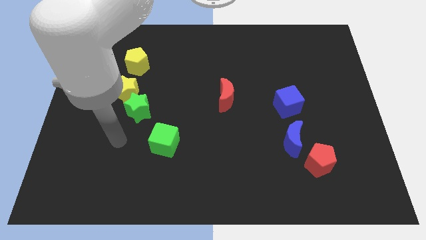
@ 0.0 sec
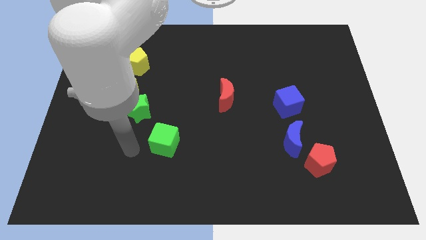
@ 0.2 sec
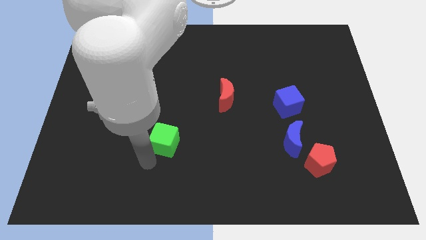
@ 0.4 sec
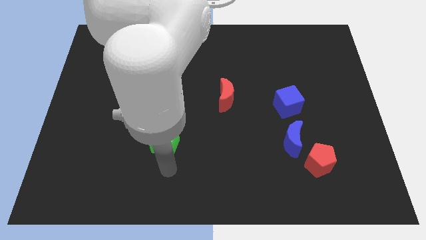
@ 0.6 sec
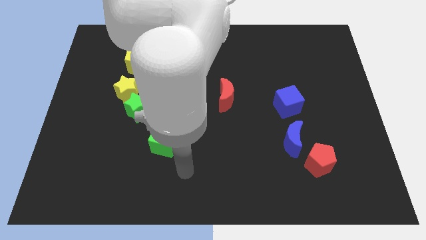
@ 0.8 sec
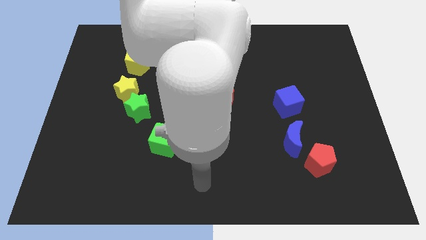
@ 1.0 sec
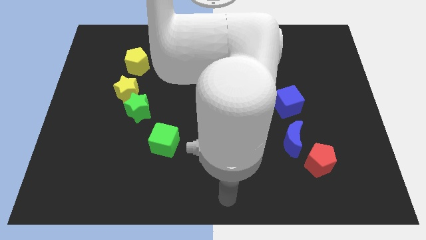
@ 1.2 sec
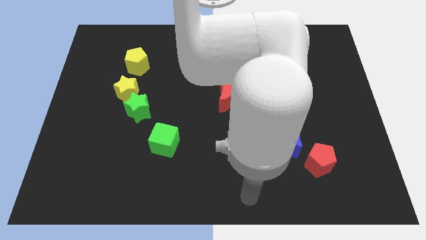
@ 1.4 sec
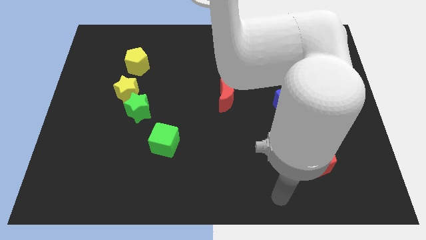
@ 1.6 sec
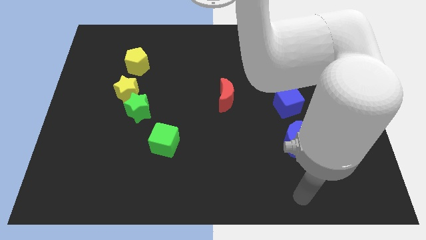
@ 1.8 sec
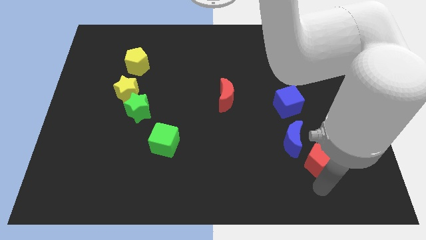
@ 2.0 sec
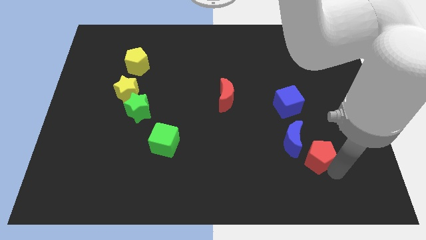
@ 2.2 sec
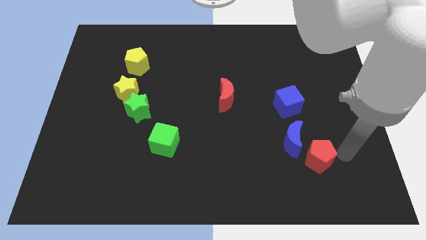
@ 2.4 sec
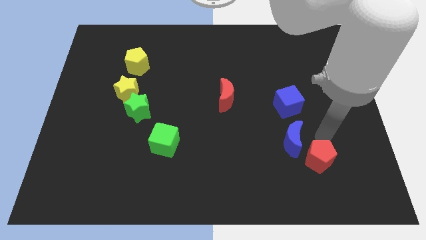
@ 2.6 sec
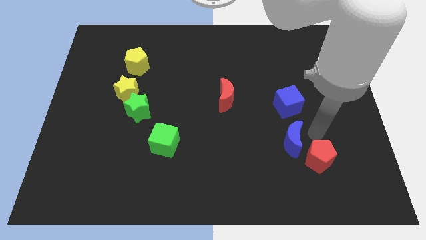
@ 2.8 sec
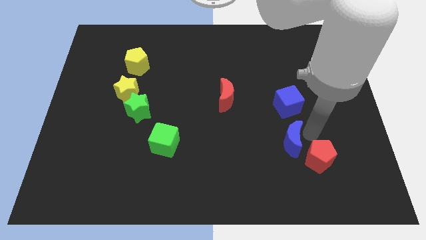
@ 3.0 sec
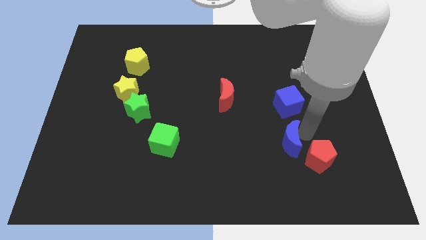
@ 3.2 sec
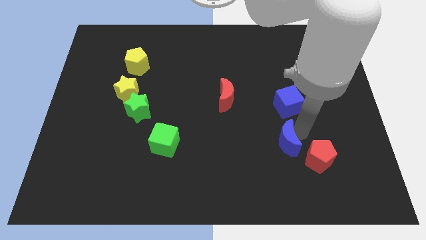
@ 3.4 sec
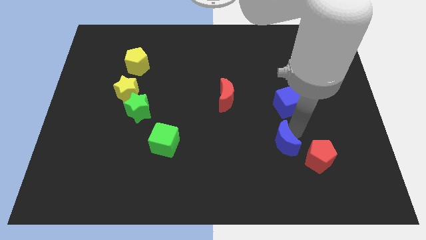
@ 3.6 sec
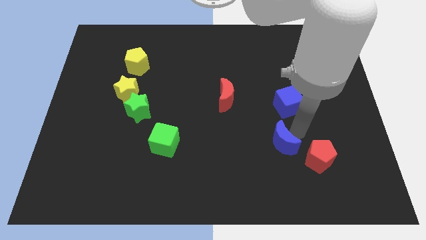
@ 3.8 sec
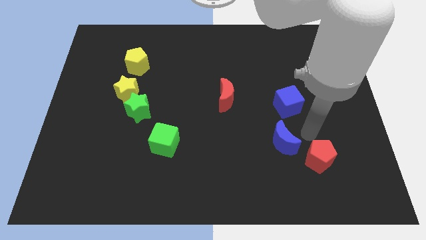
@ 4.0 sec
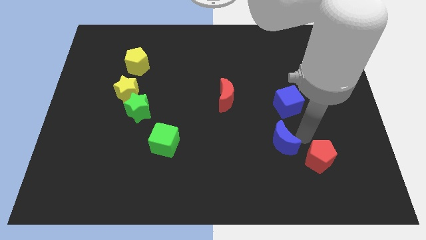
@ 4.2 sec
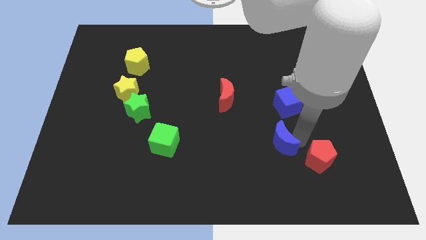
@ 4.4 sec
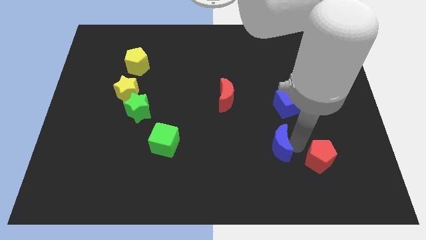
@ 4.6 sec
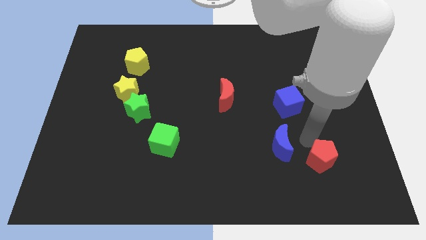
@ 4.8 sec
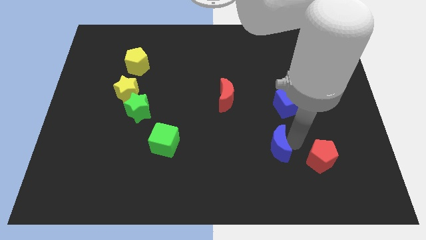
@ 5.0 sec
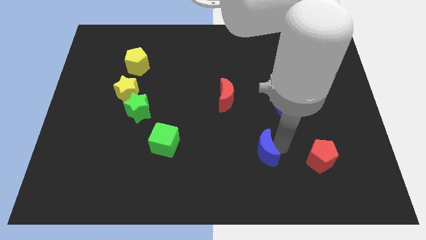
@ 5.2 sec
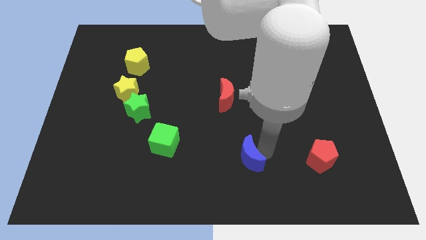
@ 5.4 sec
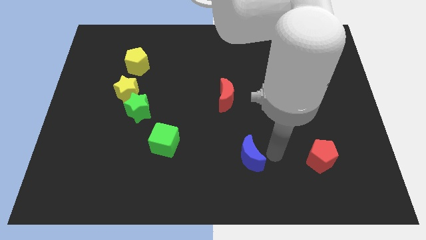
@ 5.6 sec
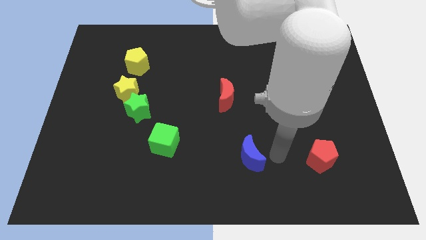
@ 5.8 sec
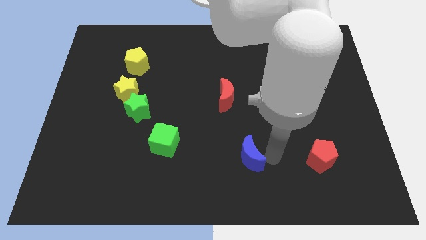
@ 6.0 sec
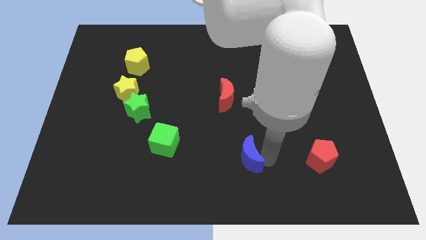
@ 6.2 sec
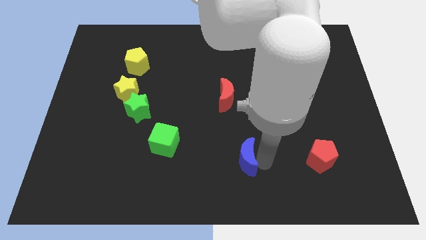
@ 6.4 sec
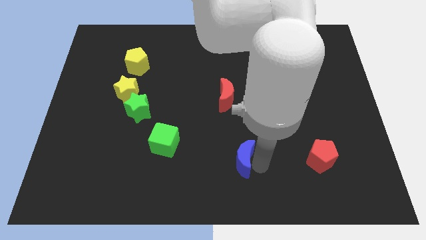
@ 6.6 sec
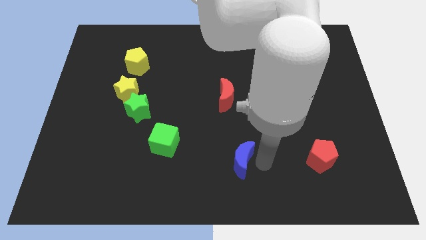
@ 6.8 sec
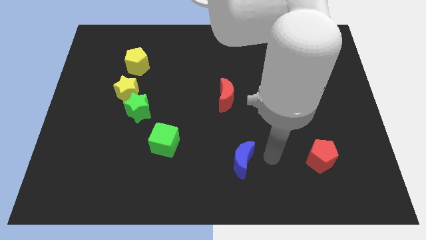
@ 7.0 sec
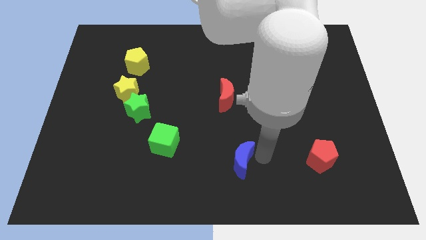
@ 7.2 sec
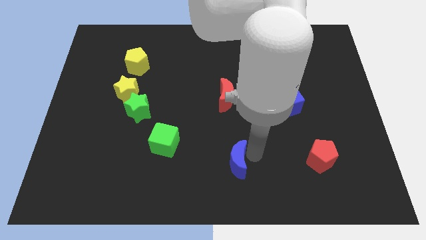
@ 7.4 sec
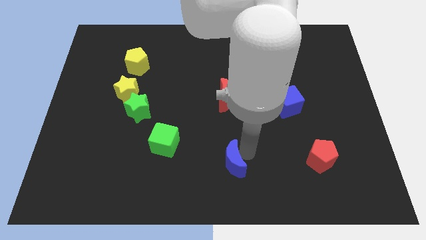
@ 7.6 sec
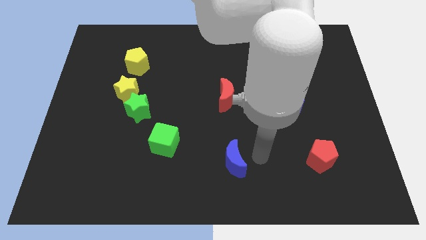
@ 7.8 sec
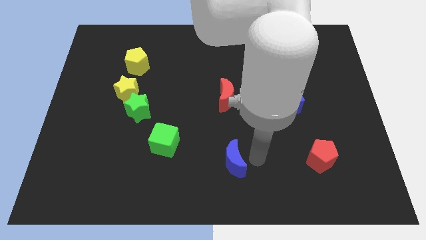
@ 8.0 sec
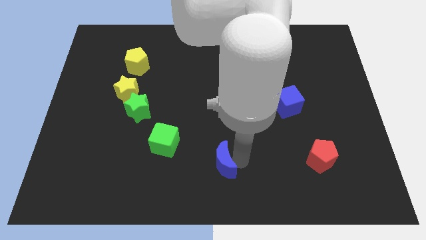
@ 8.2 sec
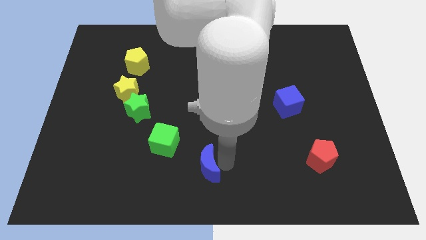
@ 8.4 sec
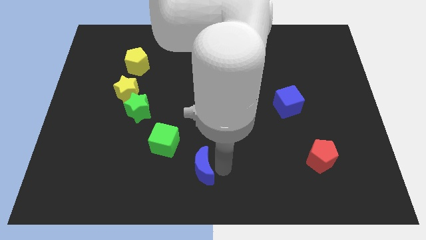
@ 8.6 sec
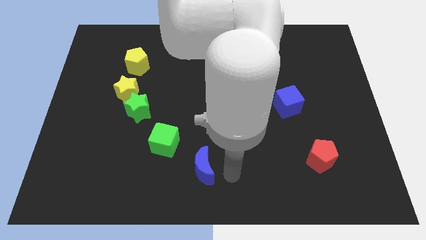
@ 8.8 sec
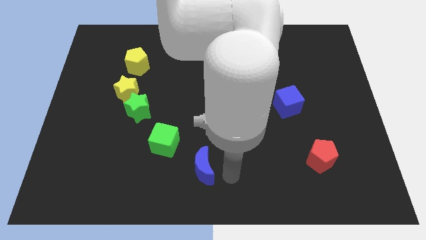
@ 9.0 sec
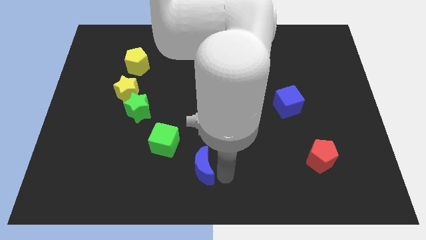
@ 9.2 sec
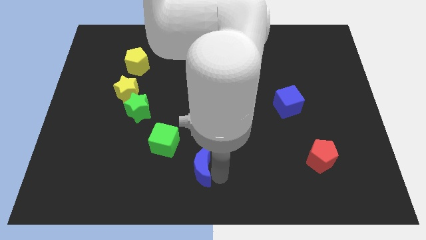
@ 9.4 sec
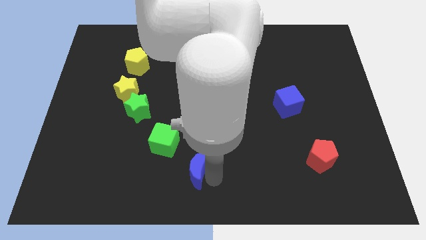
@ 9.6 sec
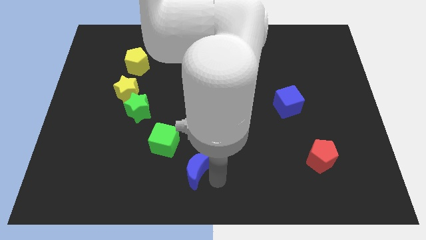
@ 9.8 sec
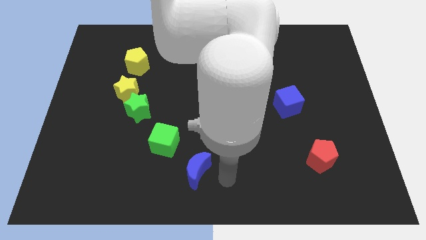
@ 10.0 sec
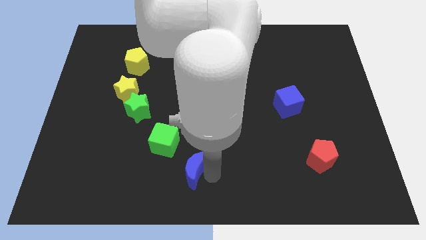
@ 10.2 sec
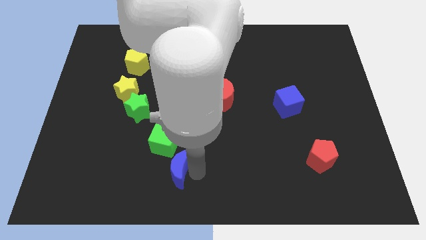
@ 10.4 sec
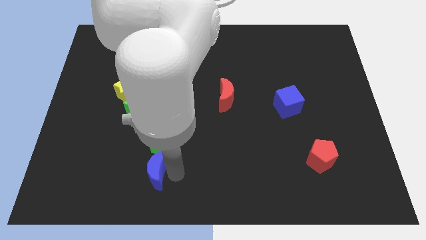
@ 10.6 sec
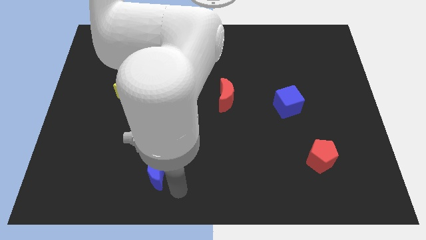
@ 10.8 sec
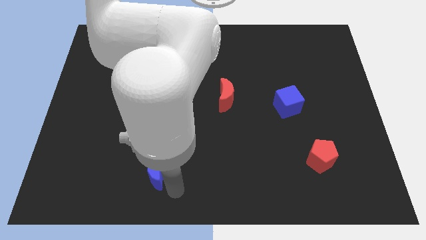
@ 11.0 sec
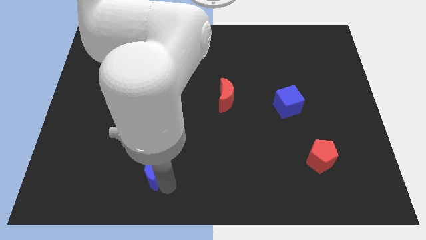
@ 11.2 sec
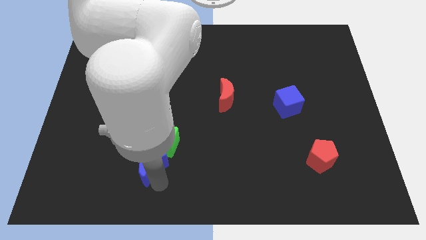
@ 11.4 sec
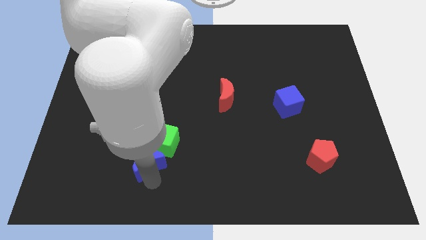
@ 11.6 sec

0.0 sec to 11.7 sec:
put the blue moon to the bottom of the green star
